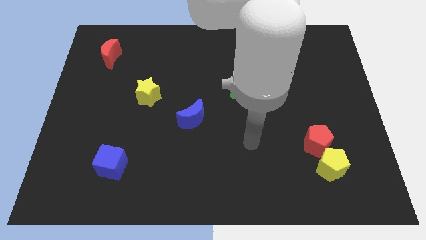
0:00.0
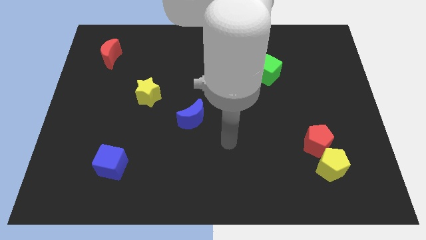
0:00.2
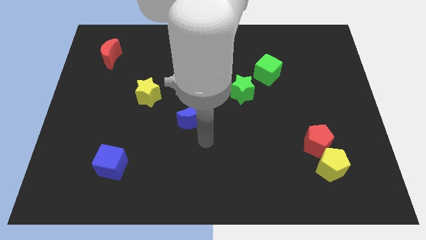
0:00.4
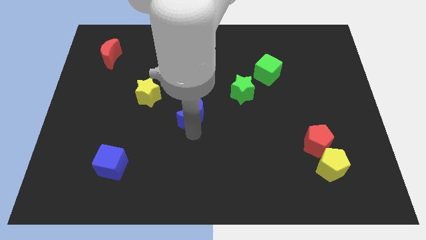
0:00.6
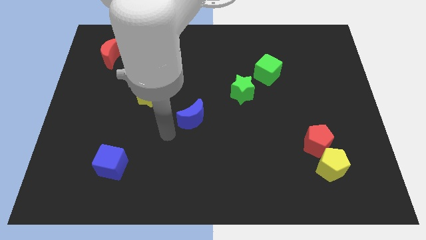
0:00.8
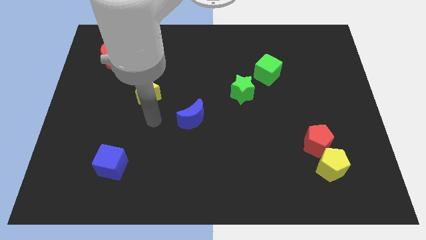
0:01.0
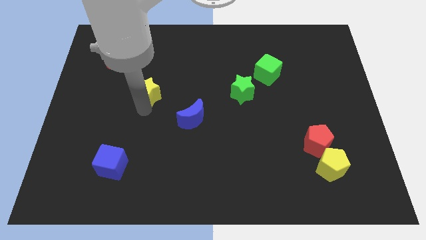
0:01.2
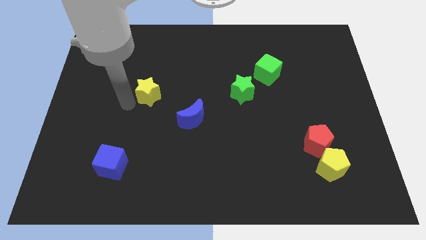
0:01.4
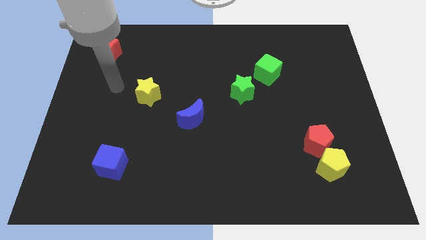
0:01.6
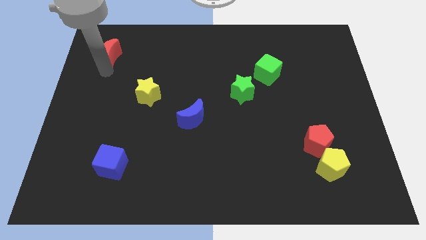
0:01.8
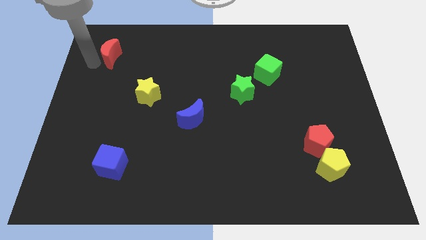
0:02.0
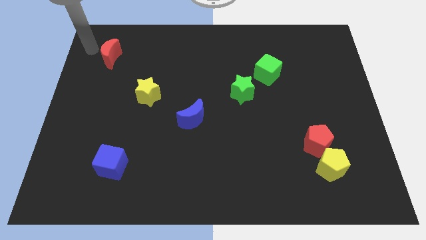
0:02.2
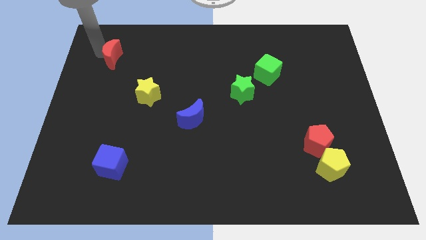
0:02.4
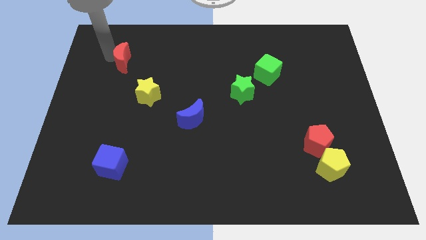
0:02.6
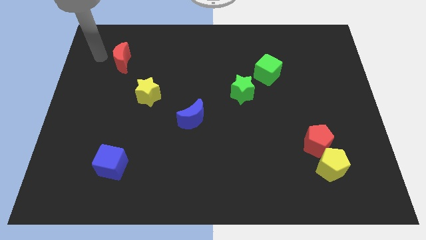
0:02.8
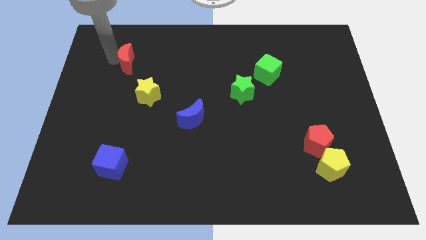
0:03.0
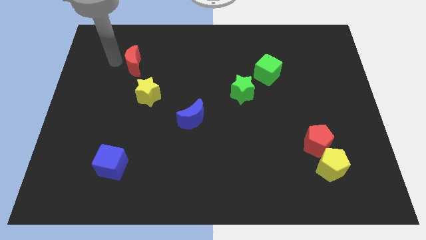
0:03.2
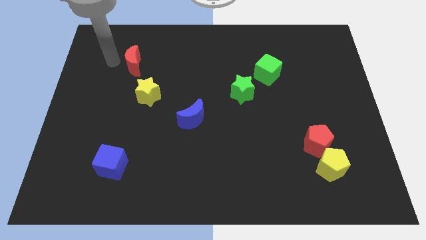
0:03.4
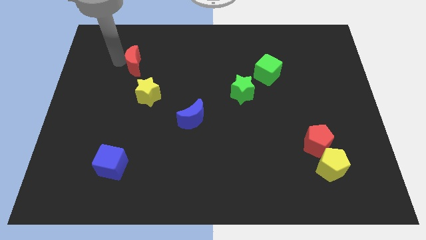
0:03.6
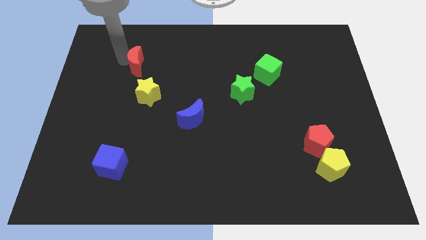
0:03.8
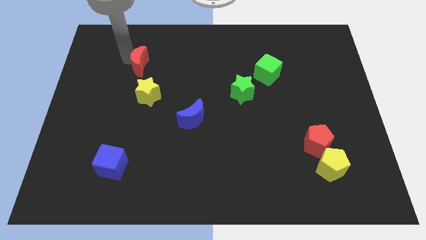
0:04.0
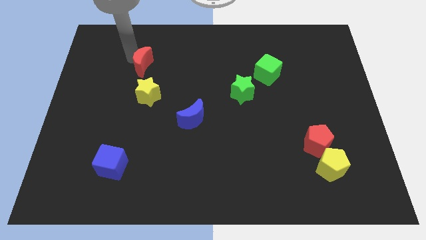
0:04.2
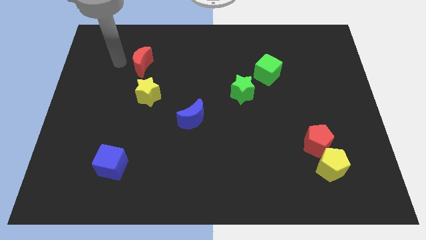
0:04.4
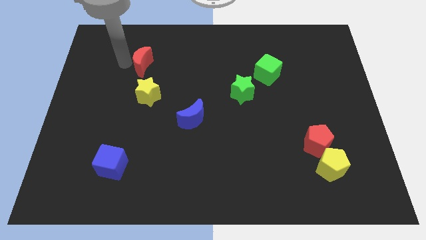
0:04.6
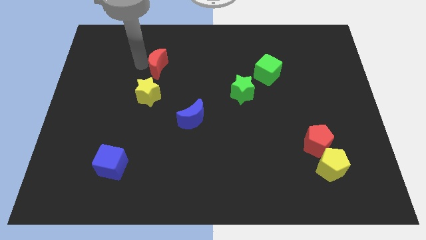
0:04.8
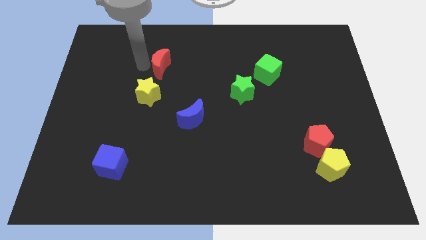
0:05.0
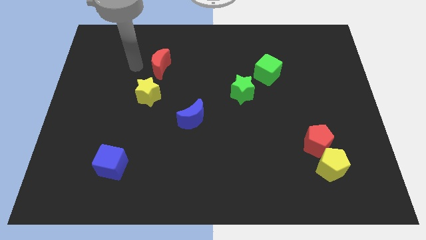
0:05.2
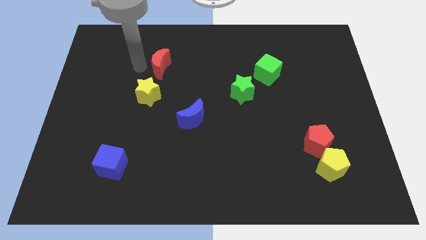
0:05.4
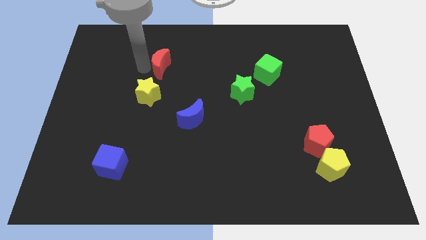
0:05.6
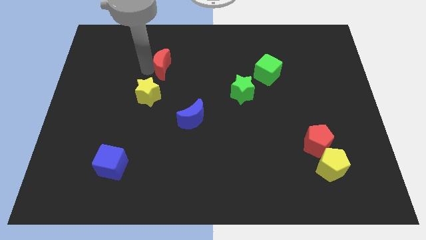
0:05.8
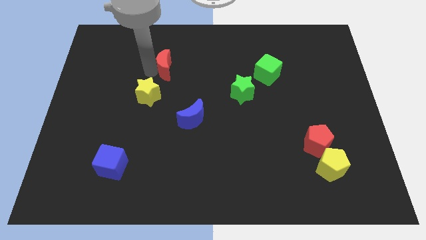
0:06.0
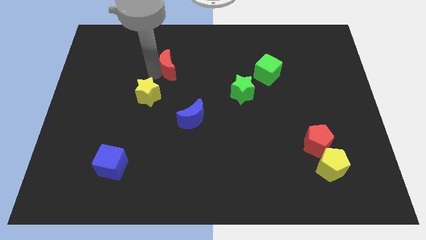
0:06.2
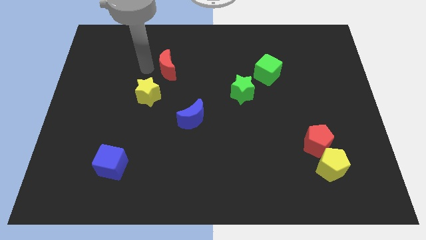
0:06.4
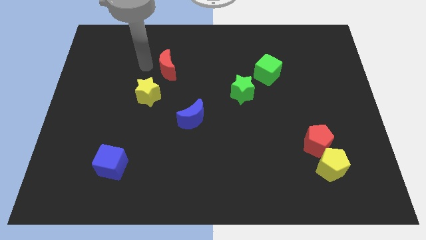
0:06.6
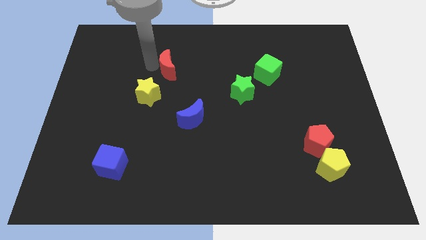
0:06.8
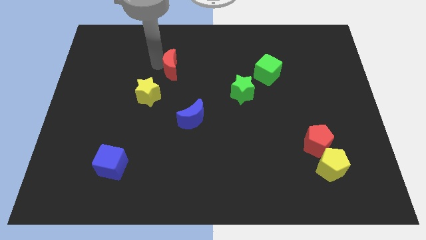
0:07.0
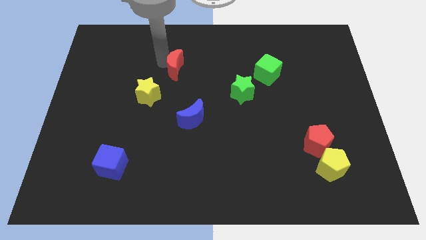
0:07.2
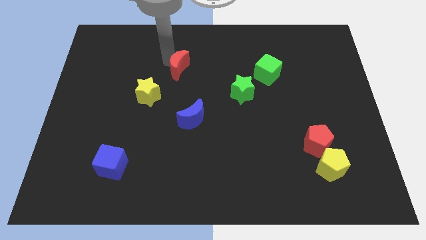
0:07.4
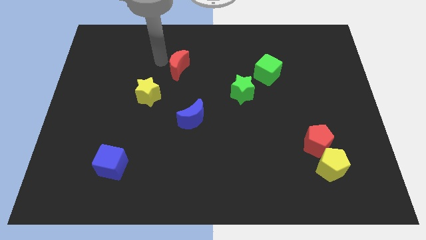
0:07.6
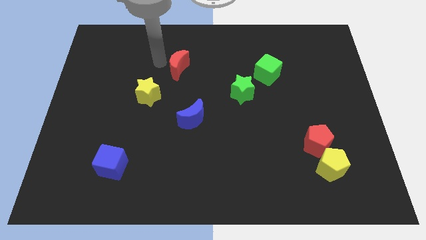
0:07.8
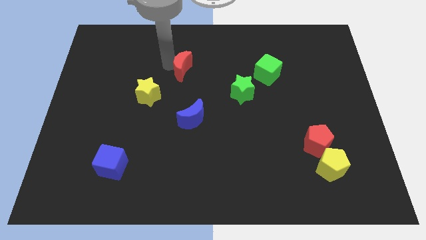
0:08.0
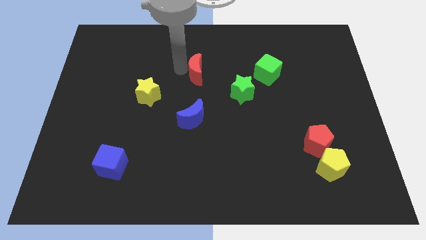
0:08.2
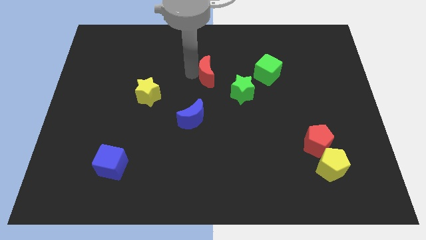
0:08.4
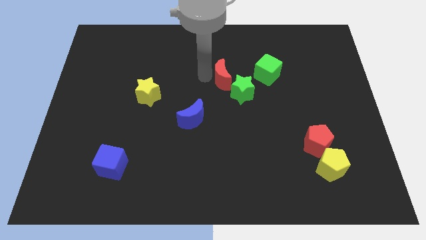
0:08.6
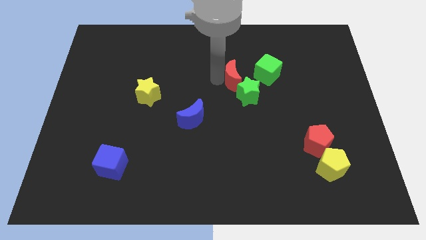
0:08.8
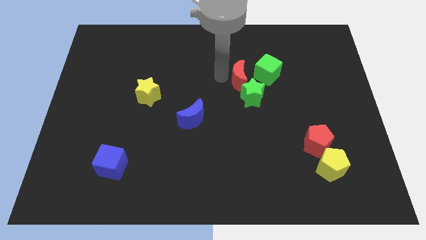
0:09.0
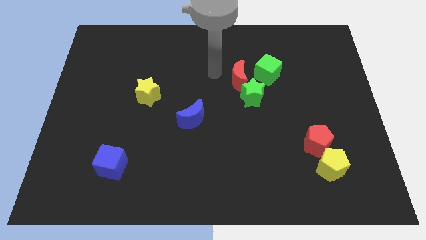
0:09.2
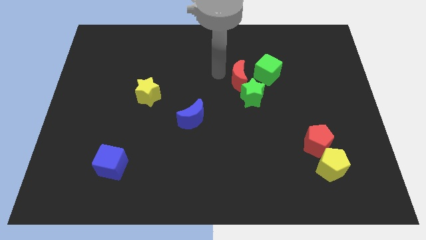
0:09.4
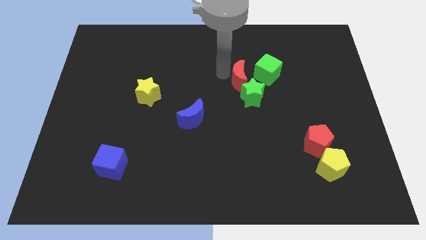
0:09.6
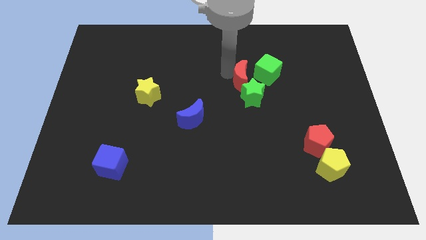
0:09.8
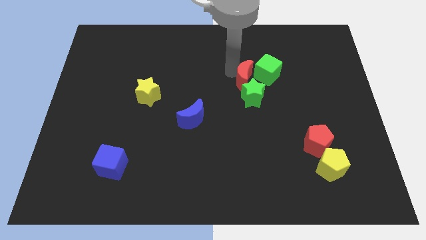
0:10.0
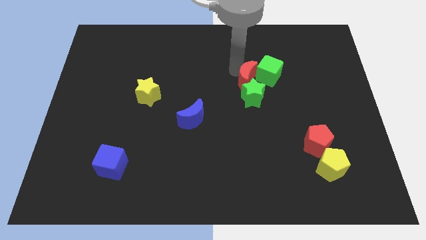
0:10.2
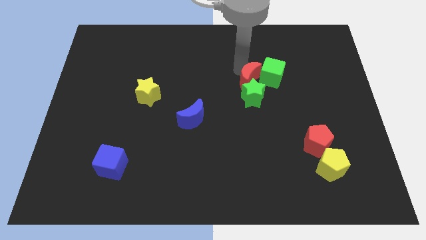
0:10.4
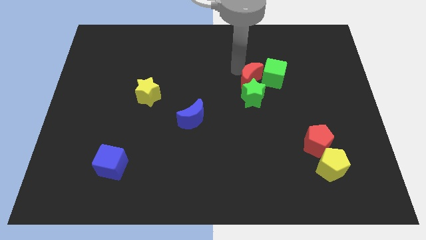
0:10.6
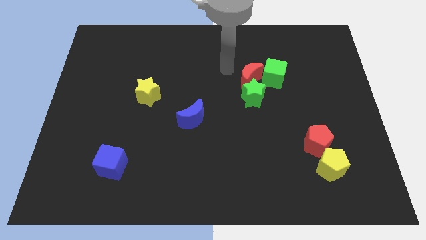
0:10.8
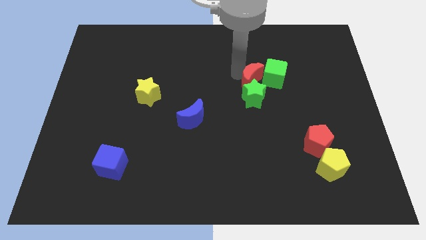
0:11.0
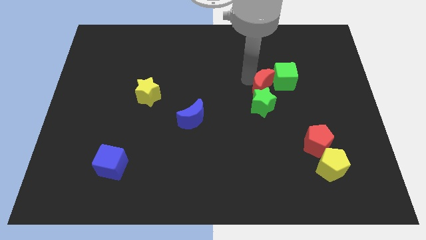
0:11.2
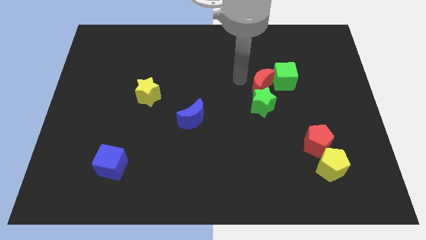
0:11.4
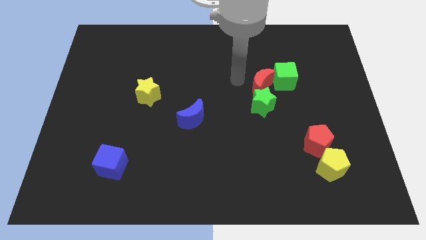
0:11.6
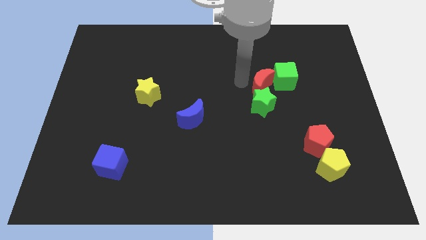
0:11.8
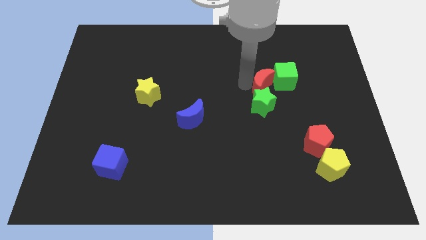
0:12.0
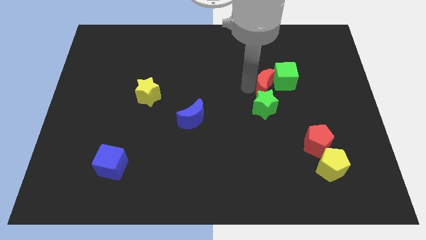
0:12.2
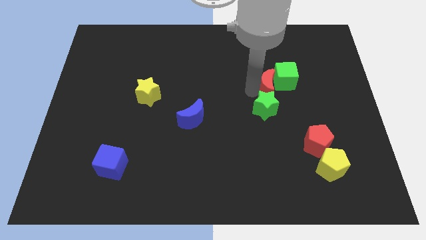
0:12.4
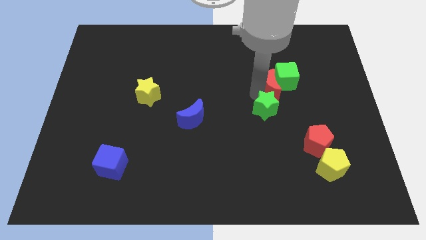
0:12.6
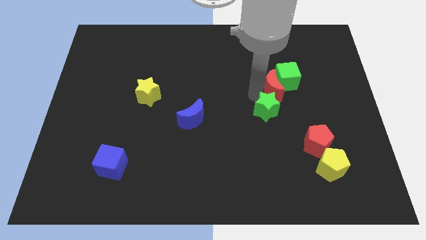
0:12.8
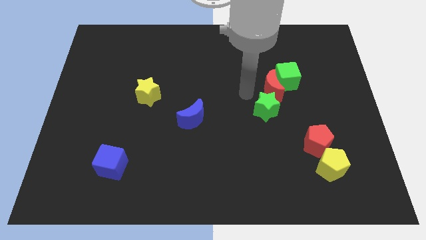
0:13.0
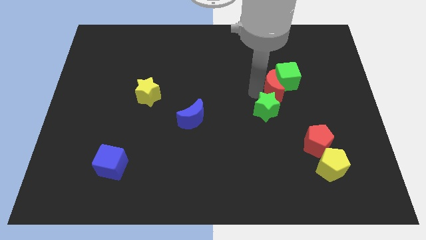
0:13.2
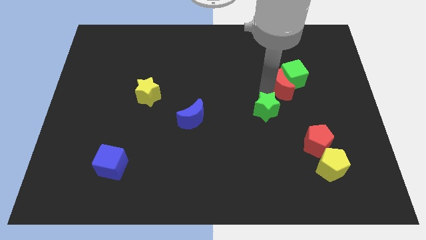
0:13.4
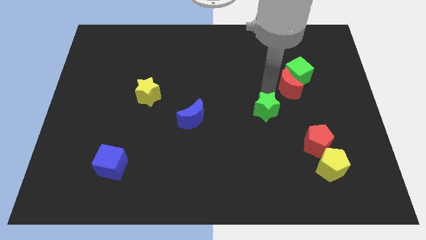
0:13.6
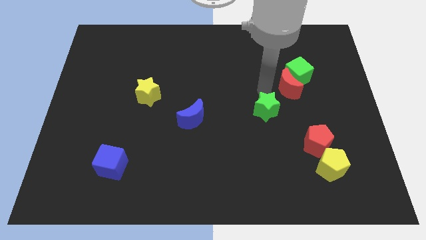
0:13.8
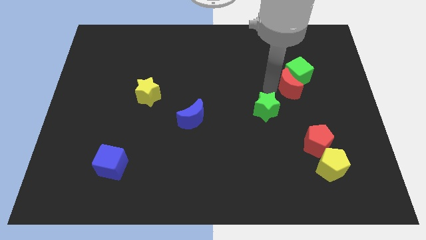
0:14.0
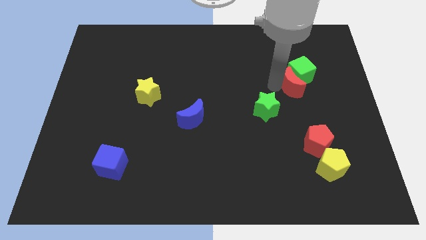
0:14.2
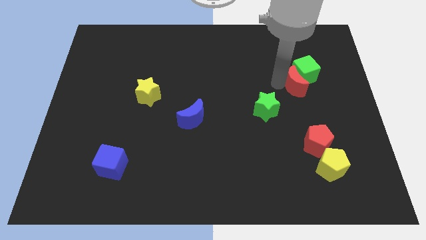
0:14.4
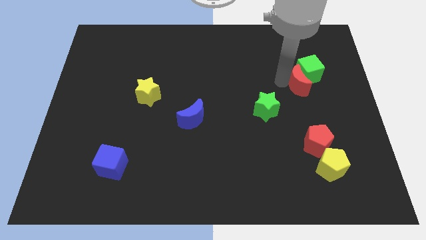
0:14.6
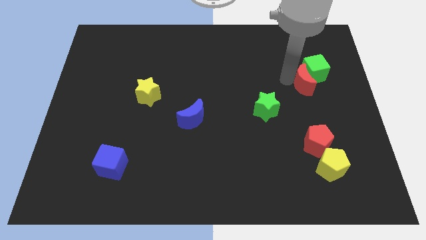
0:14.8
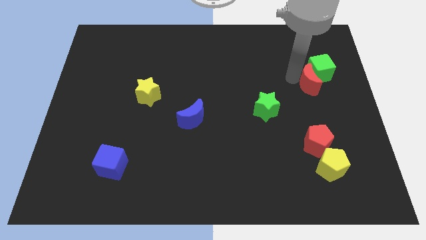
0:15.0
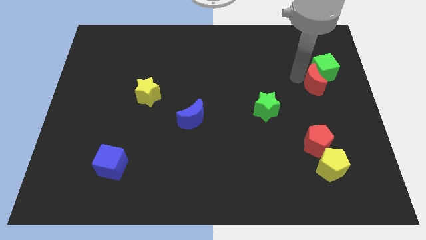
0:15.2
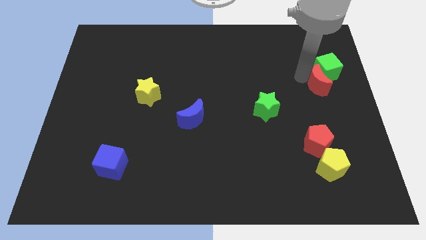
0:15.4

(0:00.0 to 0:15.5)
move the red moon to the center right

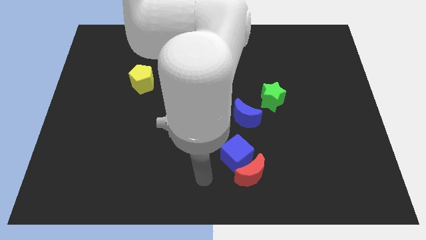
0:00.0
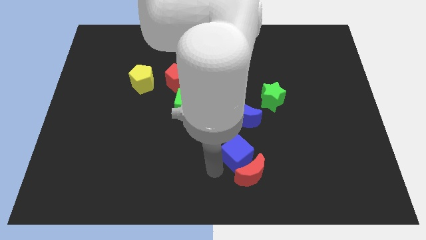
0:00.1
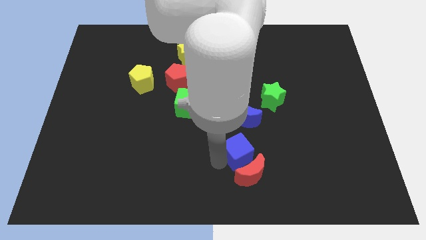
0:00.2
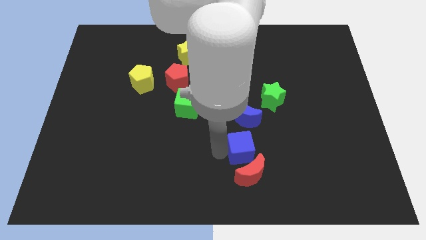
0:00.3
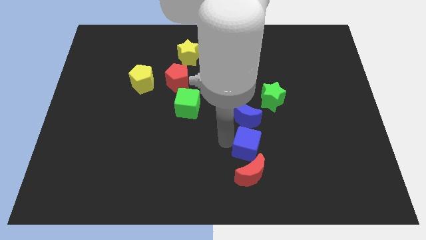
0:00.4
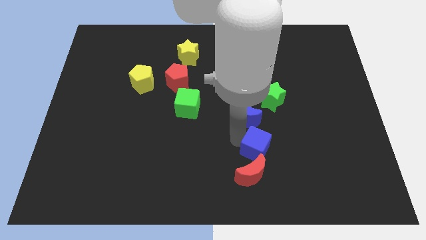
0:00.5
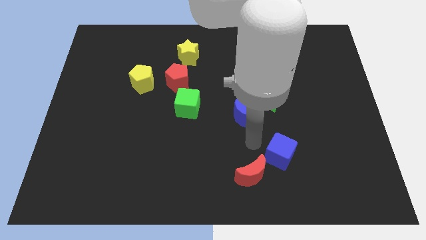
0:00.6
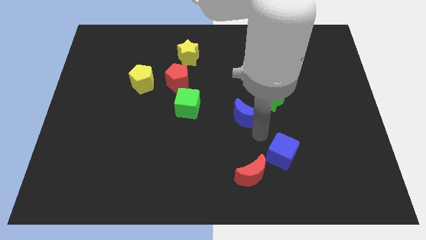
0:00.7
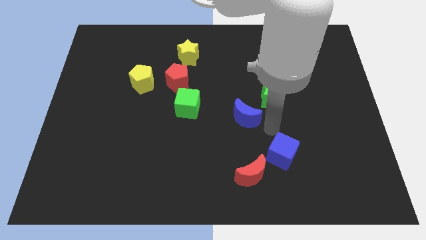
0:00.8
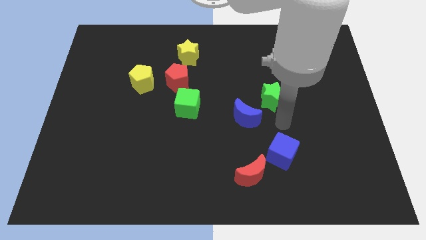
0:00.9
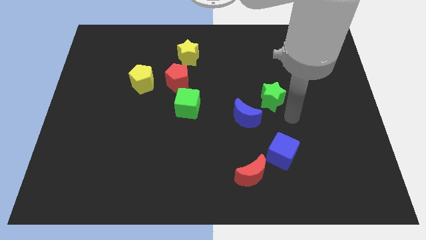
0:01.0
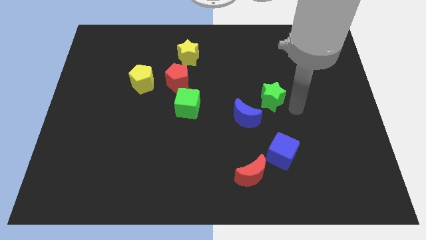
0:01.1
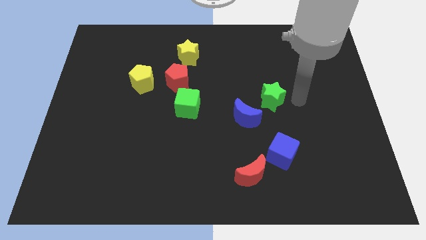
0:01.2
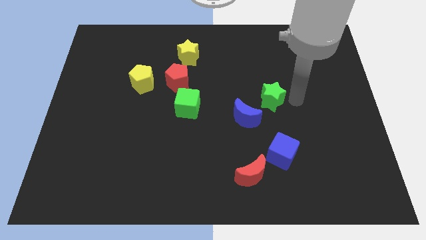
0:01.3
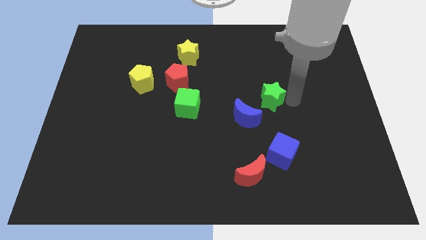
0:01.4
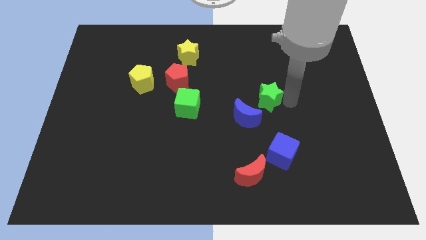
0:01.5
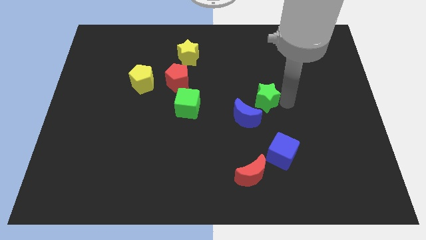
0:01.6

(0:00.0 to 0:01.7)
slide the green star to the center
